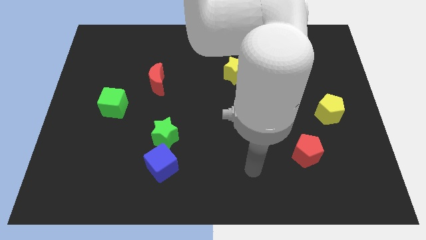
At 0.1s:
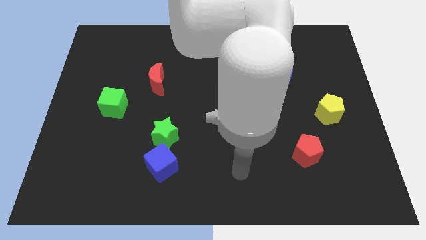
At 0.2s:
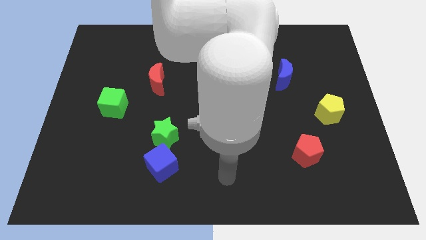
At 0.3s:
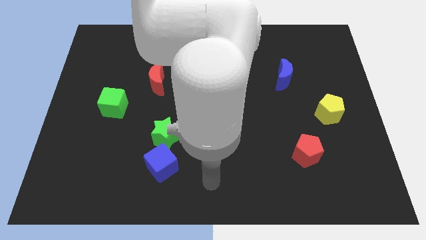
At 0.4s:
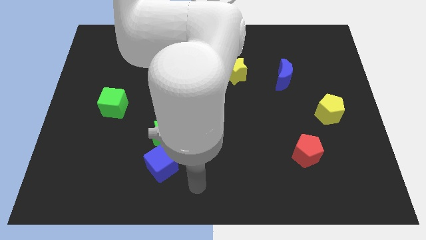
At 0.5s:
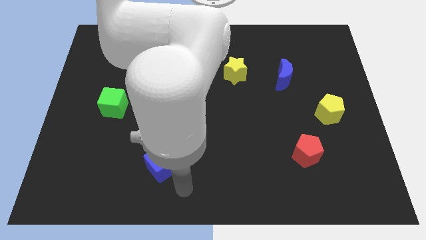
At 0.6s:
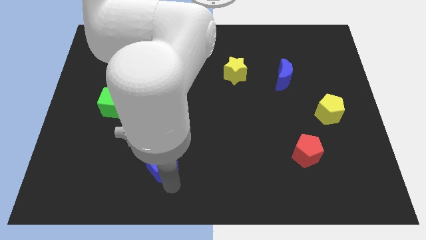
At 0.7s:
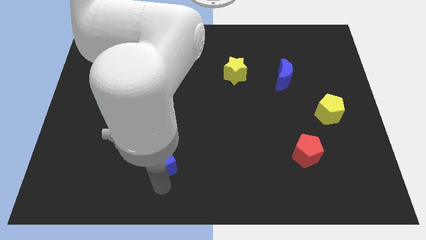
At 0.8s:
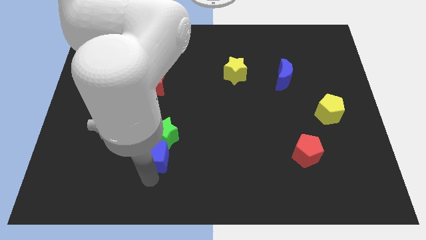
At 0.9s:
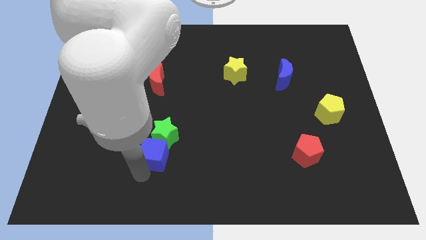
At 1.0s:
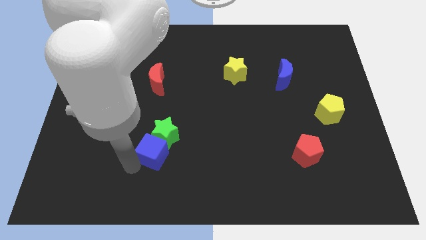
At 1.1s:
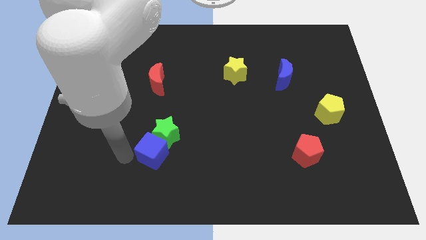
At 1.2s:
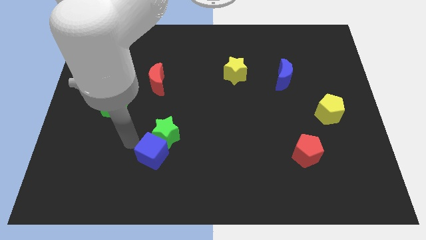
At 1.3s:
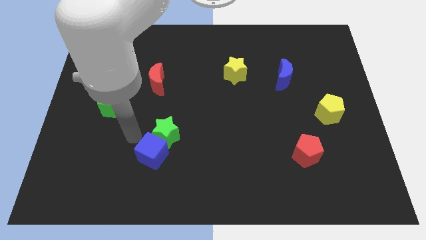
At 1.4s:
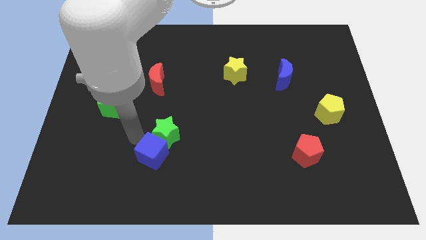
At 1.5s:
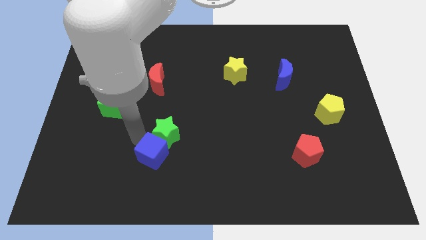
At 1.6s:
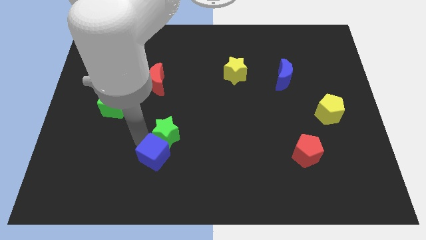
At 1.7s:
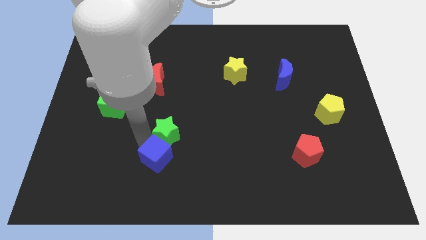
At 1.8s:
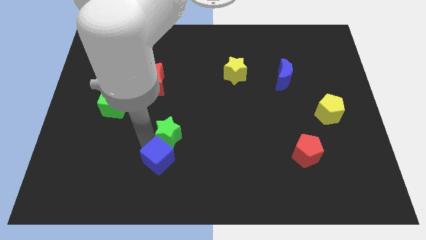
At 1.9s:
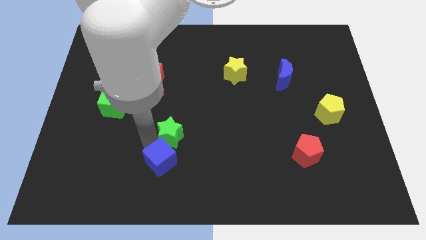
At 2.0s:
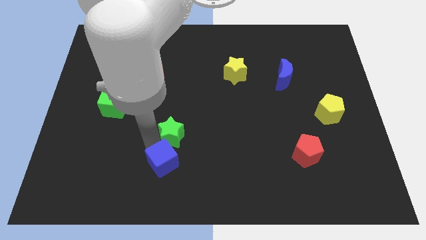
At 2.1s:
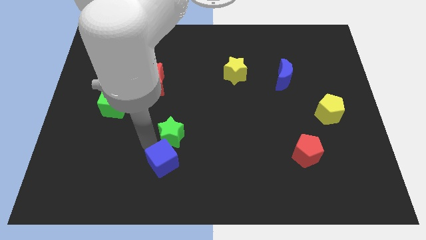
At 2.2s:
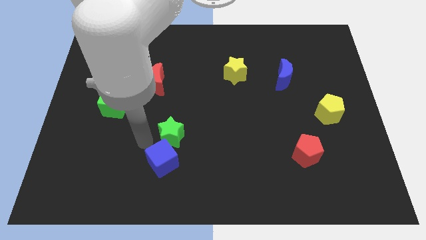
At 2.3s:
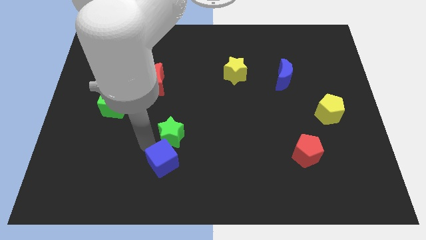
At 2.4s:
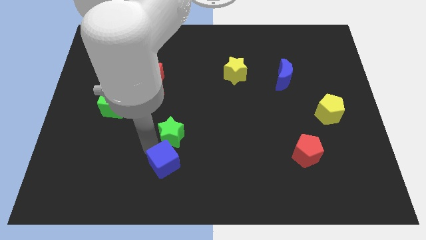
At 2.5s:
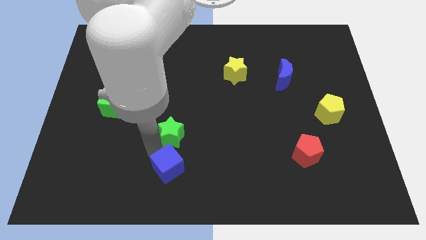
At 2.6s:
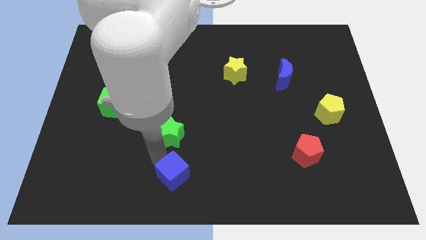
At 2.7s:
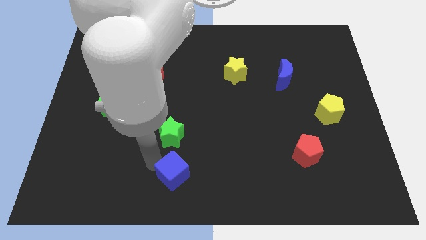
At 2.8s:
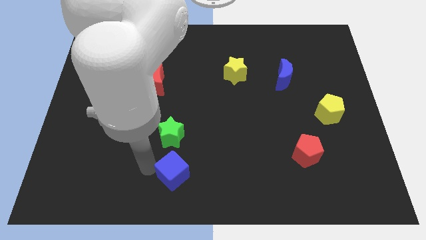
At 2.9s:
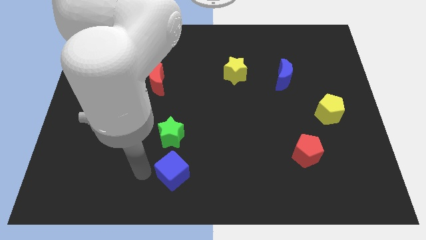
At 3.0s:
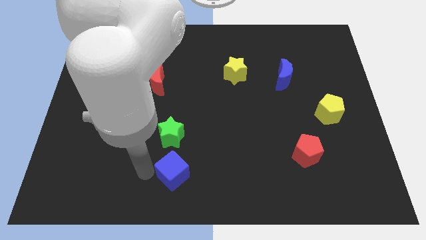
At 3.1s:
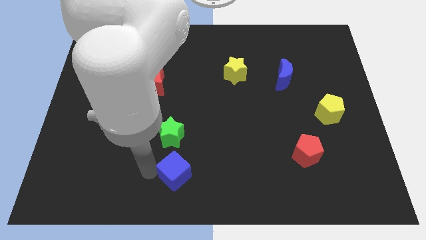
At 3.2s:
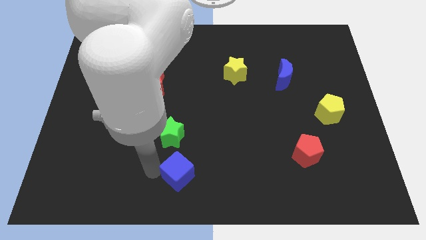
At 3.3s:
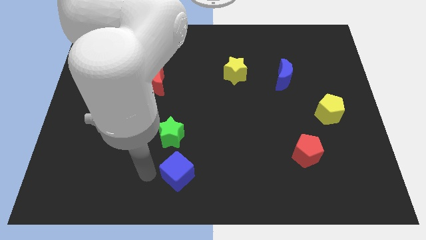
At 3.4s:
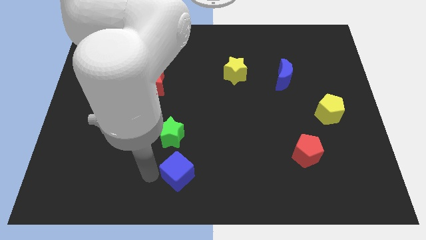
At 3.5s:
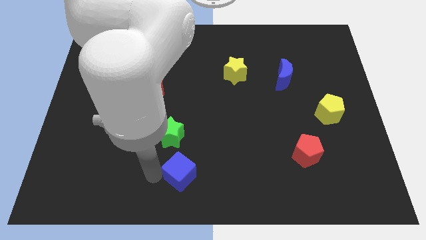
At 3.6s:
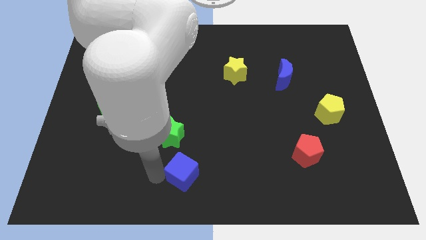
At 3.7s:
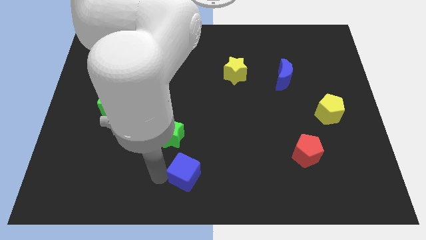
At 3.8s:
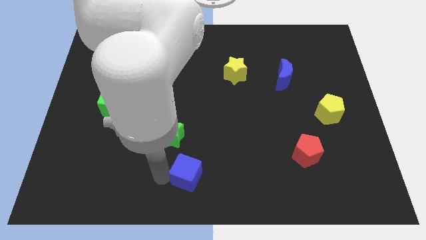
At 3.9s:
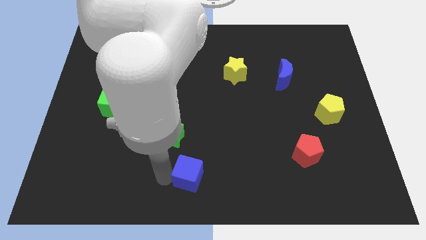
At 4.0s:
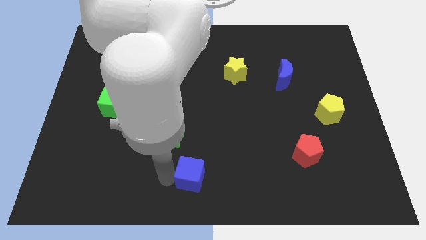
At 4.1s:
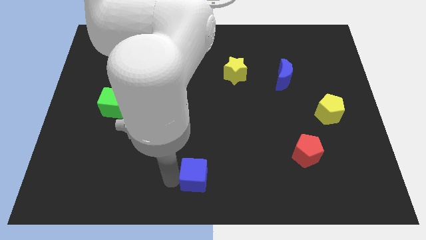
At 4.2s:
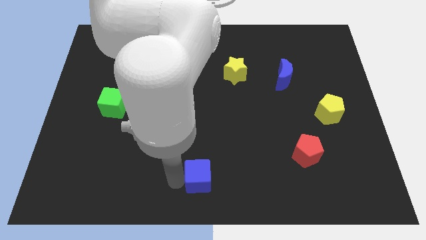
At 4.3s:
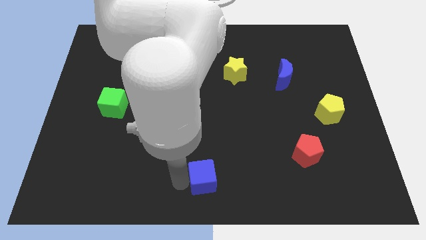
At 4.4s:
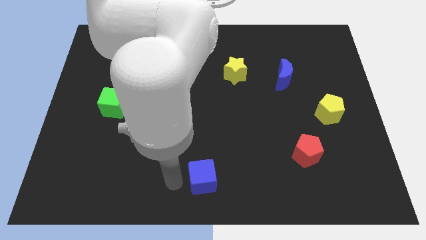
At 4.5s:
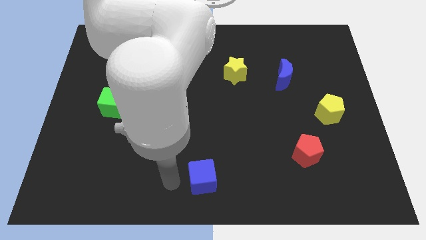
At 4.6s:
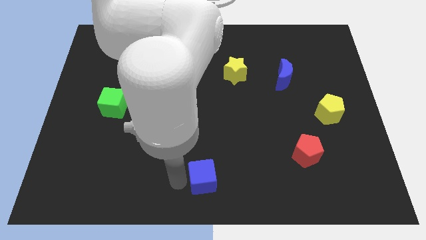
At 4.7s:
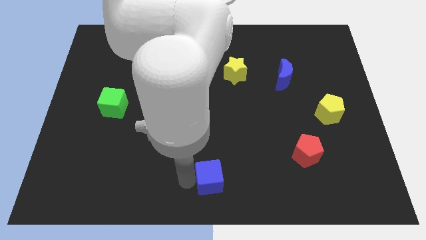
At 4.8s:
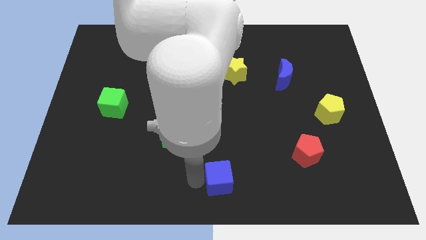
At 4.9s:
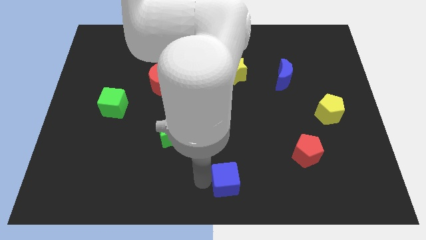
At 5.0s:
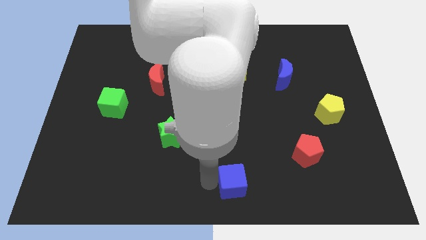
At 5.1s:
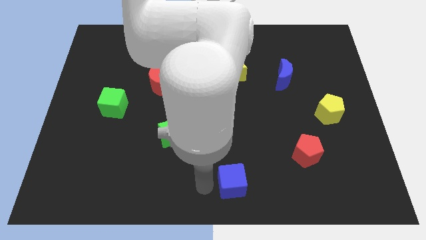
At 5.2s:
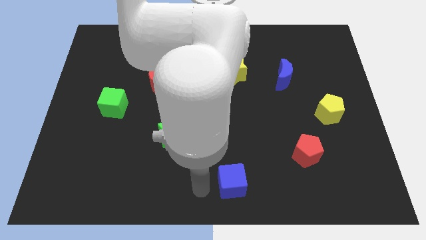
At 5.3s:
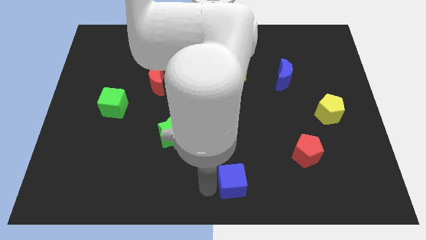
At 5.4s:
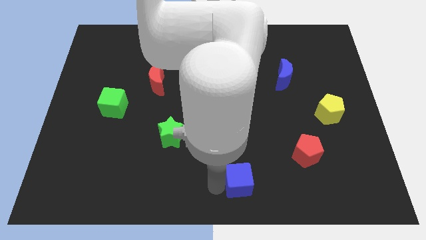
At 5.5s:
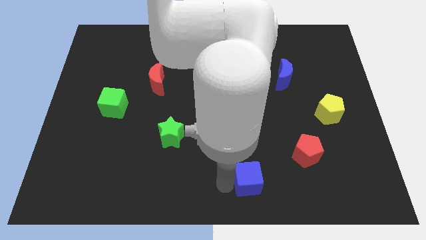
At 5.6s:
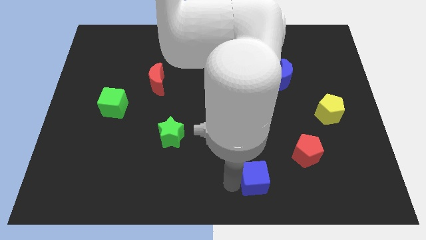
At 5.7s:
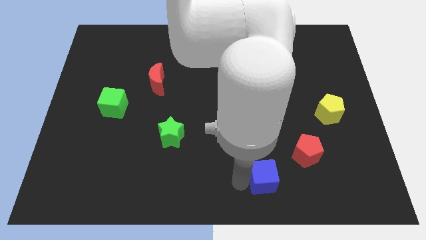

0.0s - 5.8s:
put the blue cube diagonally down and to the left of the red pentagon

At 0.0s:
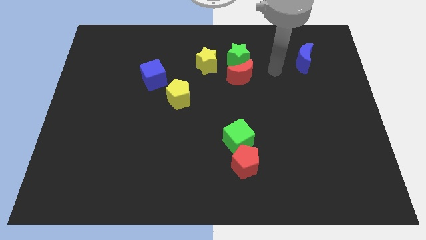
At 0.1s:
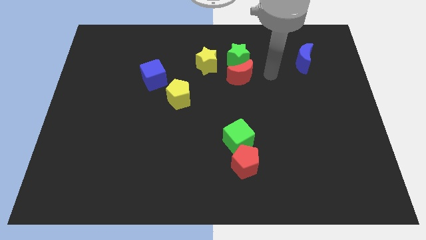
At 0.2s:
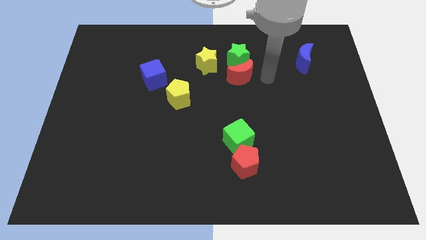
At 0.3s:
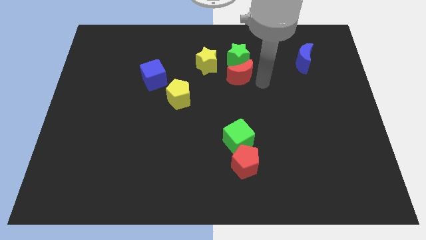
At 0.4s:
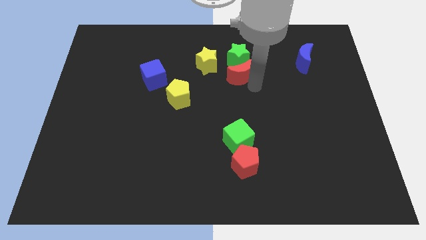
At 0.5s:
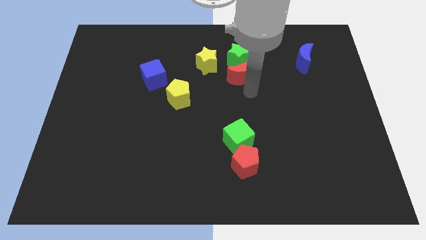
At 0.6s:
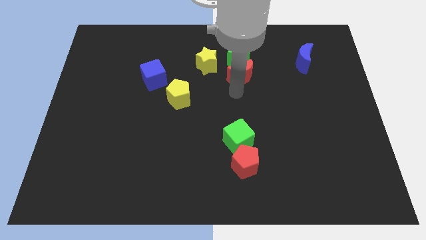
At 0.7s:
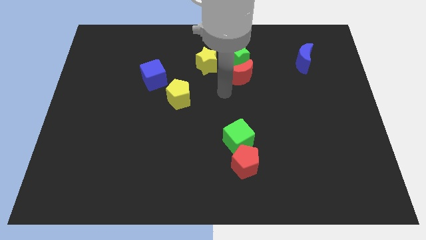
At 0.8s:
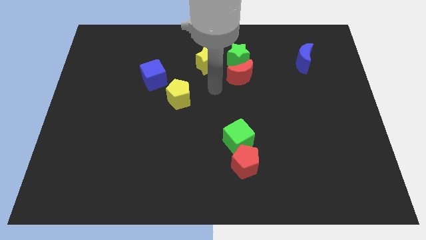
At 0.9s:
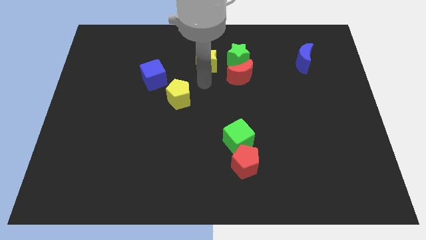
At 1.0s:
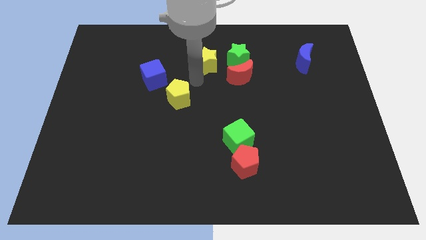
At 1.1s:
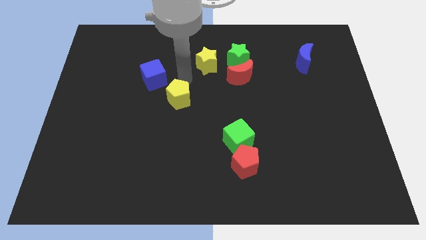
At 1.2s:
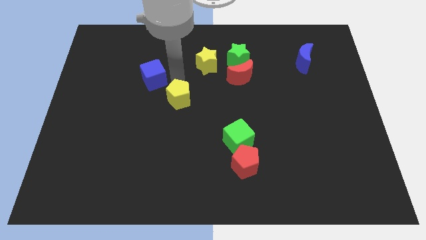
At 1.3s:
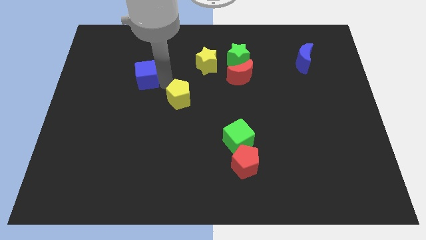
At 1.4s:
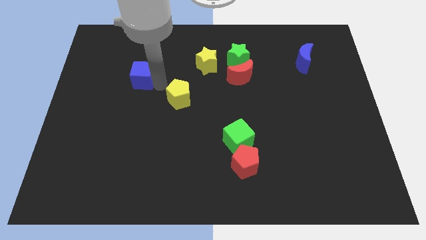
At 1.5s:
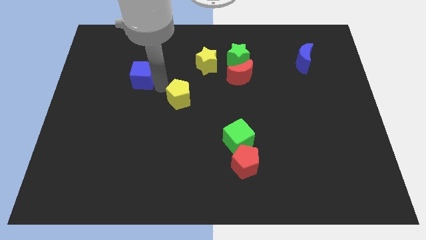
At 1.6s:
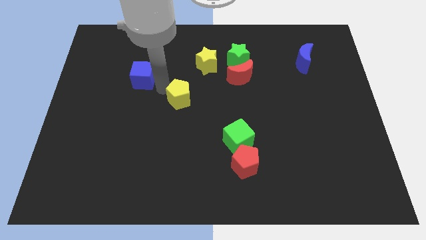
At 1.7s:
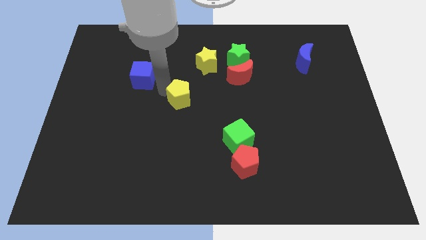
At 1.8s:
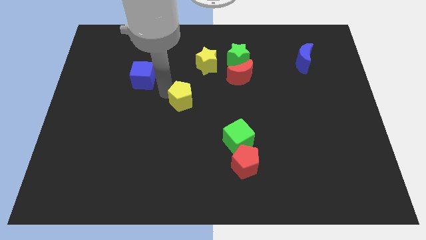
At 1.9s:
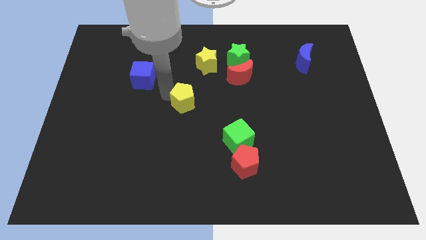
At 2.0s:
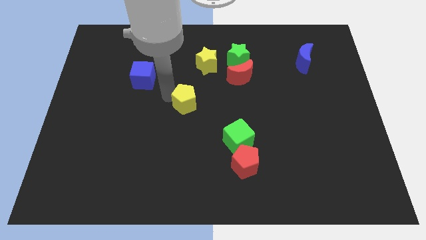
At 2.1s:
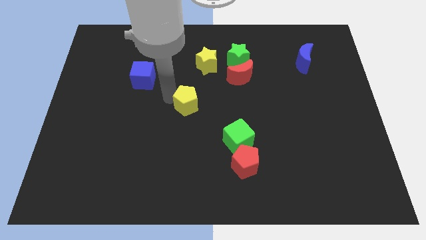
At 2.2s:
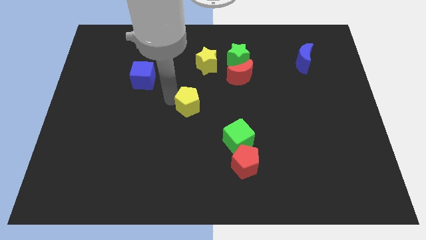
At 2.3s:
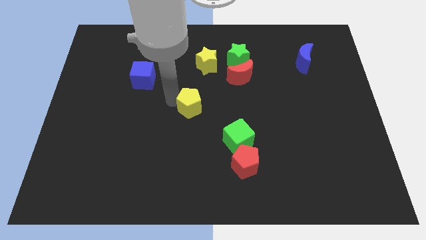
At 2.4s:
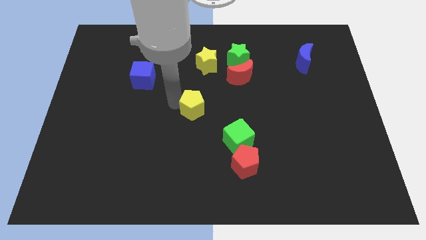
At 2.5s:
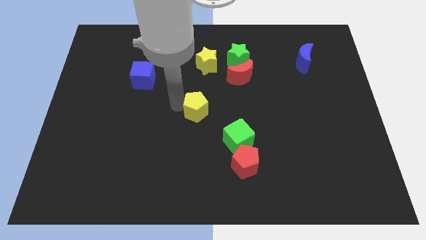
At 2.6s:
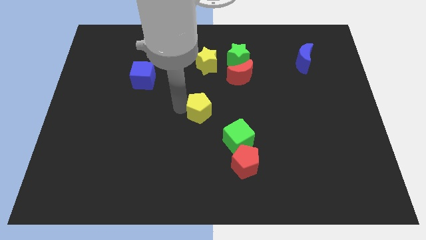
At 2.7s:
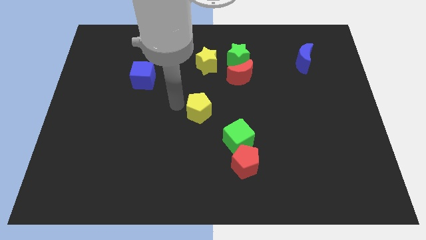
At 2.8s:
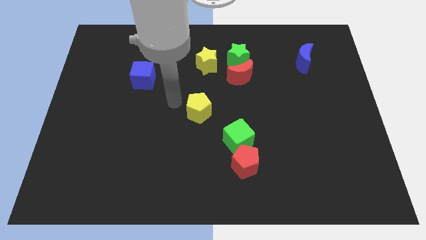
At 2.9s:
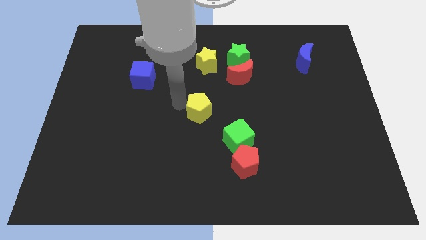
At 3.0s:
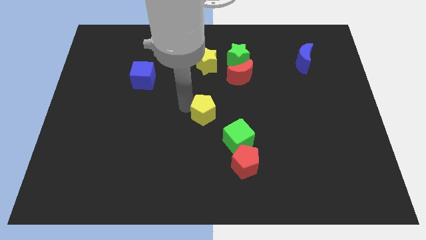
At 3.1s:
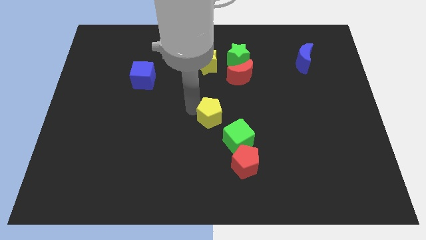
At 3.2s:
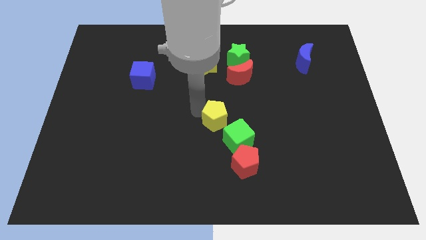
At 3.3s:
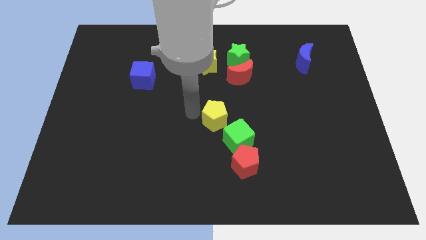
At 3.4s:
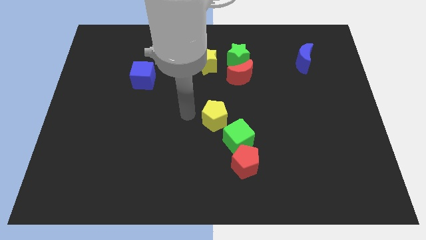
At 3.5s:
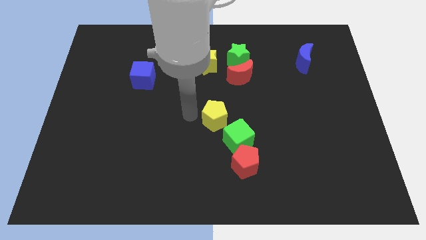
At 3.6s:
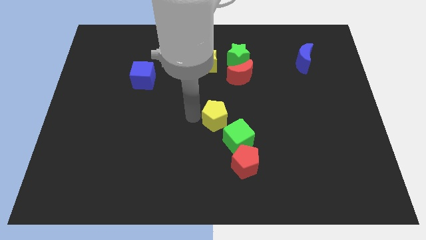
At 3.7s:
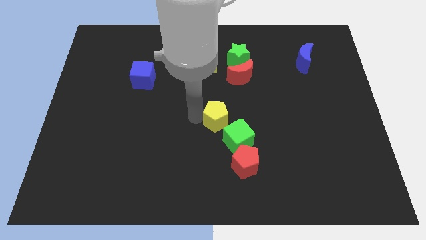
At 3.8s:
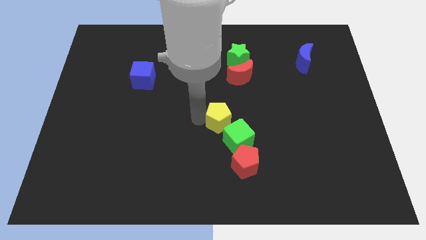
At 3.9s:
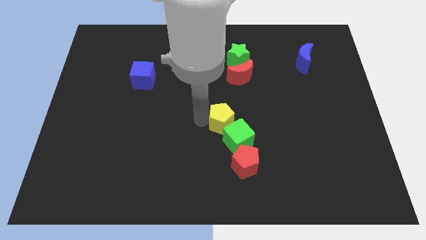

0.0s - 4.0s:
push the yellow pentagon to the top of the red pentagon
